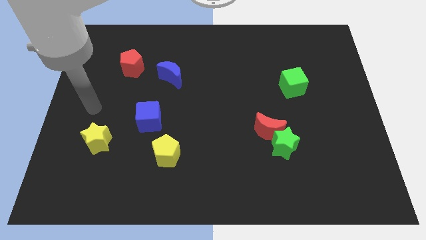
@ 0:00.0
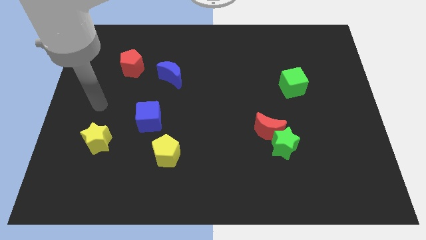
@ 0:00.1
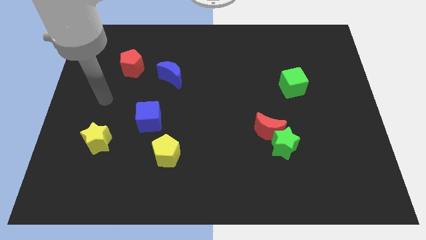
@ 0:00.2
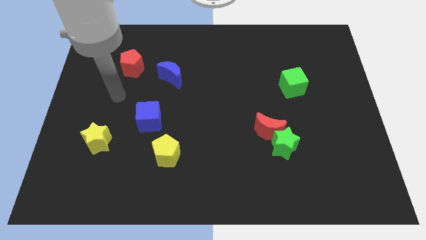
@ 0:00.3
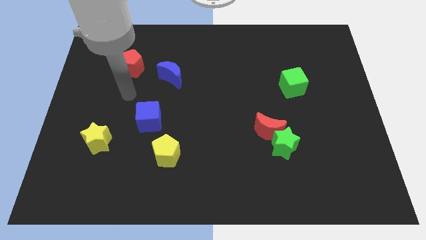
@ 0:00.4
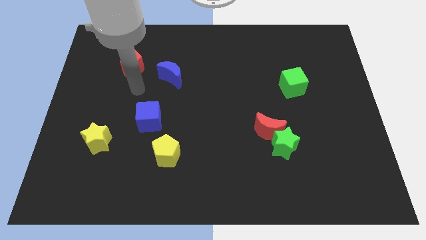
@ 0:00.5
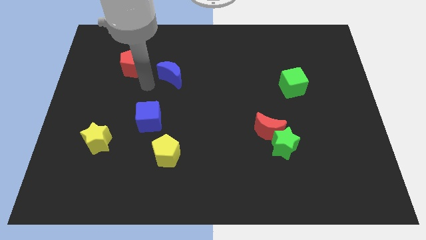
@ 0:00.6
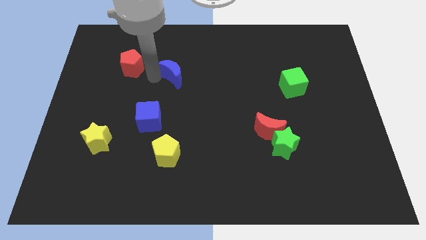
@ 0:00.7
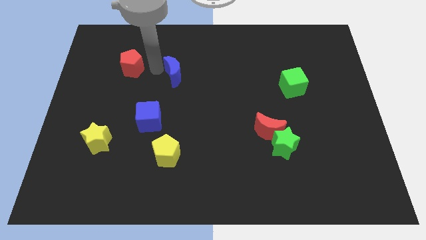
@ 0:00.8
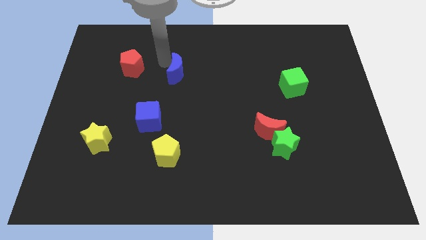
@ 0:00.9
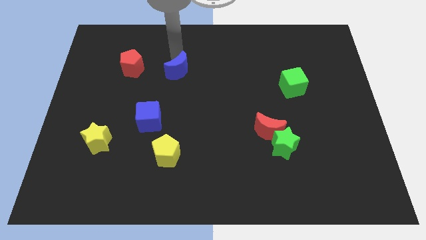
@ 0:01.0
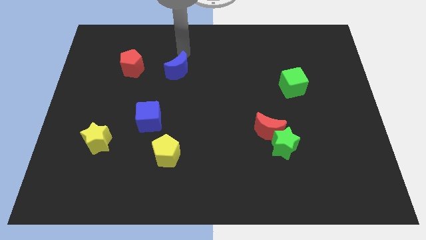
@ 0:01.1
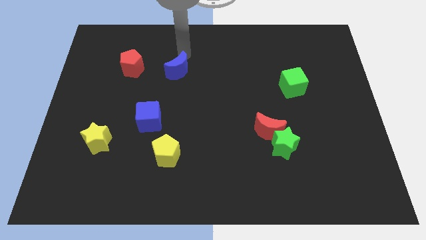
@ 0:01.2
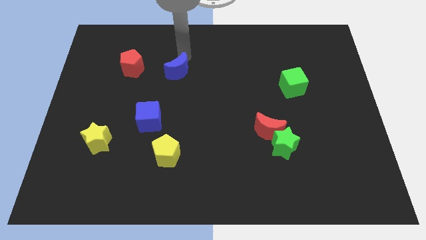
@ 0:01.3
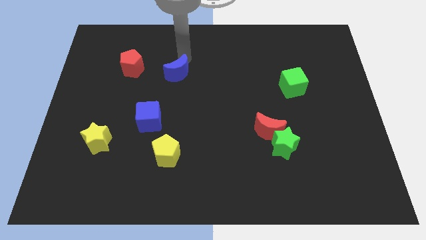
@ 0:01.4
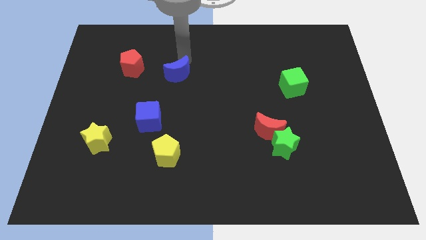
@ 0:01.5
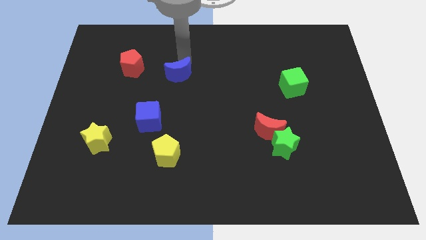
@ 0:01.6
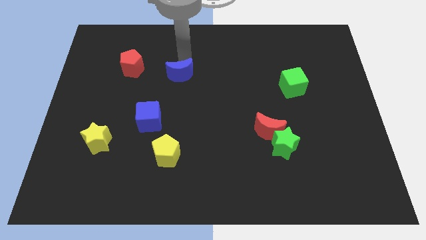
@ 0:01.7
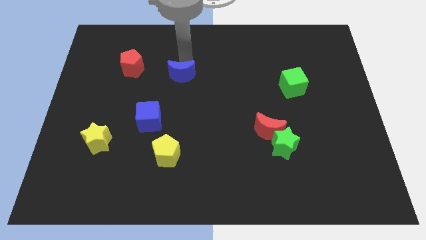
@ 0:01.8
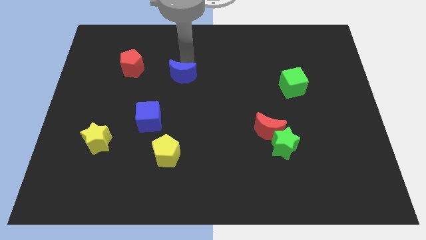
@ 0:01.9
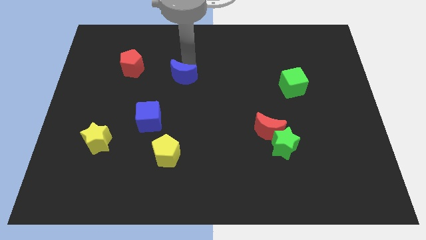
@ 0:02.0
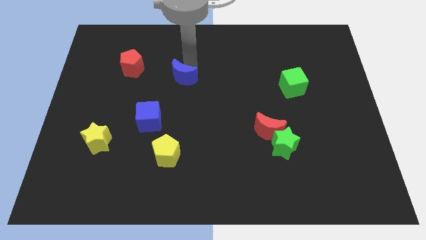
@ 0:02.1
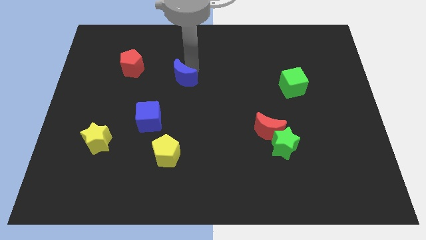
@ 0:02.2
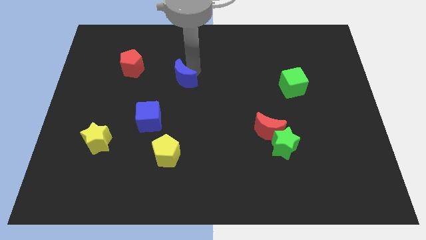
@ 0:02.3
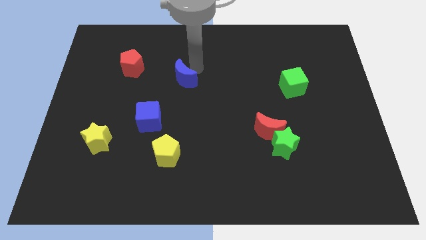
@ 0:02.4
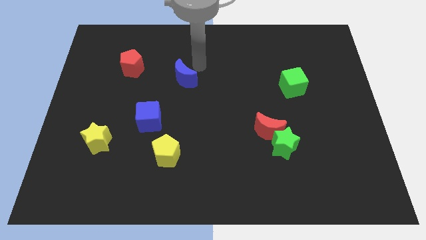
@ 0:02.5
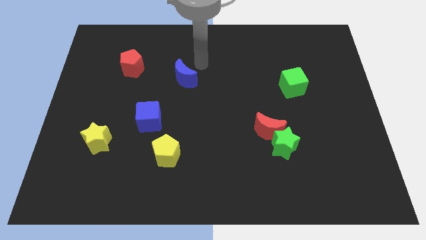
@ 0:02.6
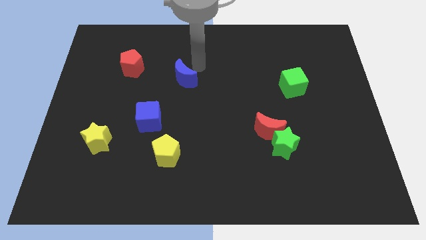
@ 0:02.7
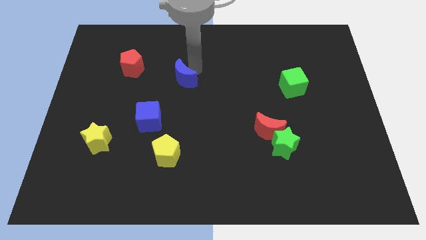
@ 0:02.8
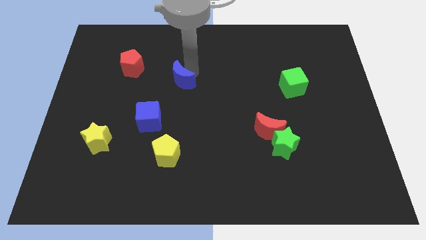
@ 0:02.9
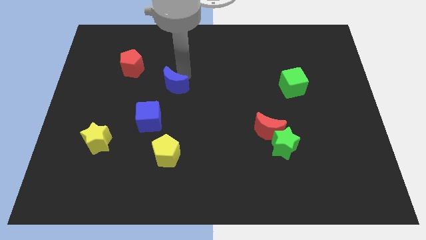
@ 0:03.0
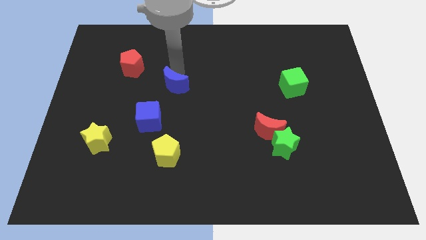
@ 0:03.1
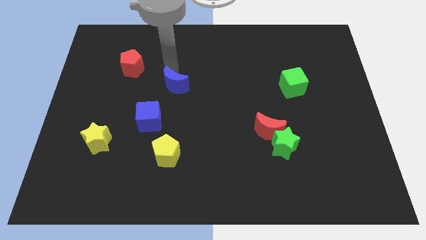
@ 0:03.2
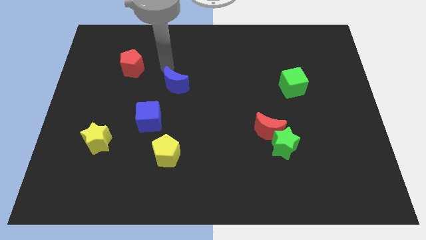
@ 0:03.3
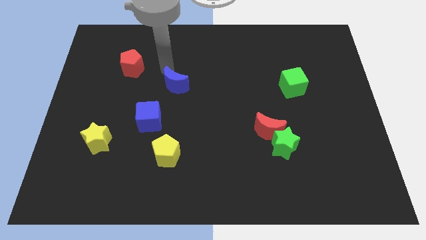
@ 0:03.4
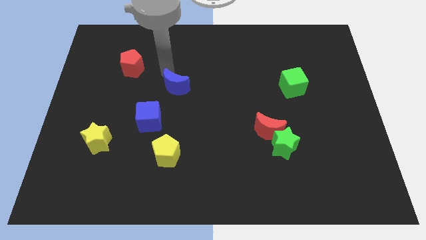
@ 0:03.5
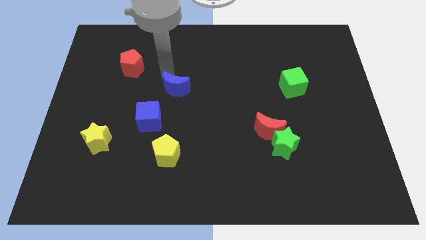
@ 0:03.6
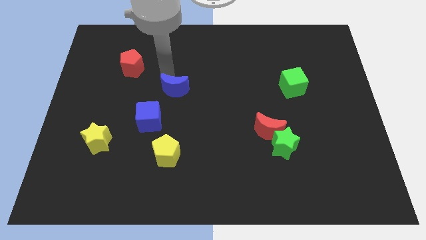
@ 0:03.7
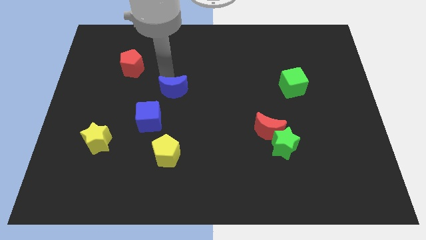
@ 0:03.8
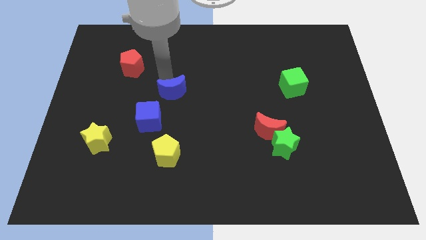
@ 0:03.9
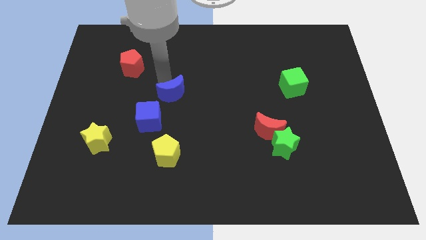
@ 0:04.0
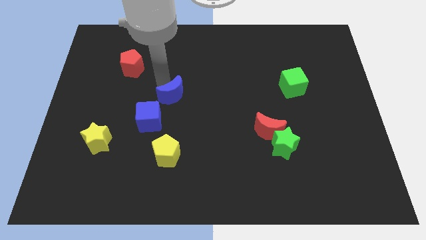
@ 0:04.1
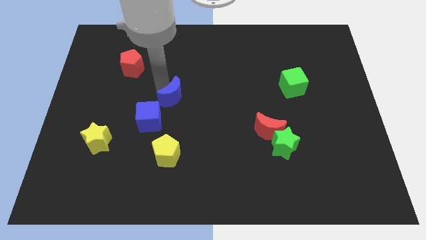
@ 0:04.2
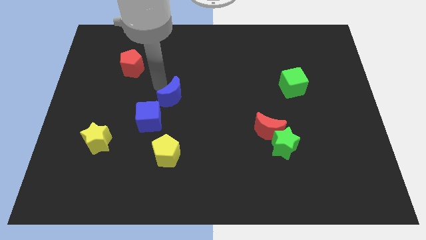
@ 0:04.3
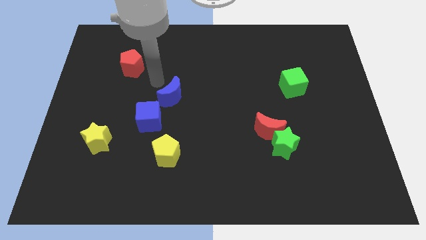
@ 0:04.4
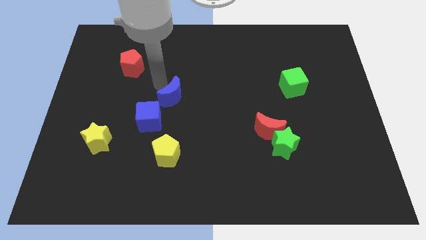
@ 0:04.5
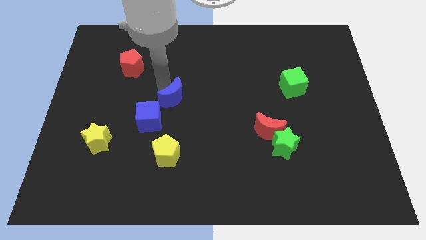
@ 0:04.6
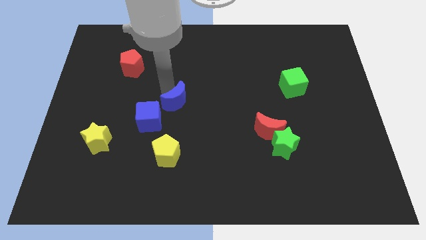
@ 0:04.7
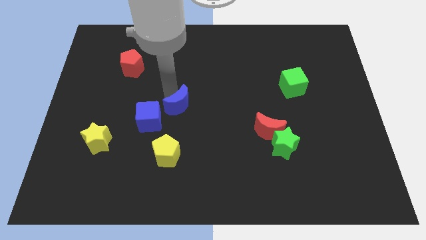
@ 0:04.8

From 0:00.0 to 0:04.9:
slide the blue moon right of the blue cube

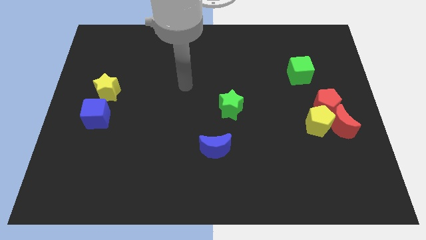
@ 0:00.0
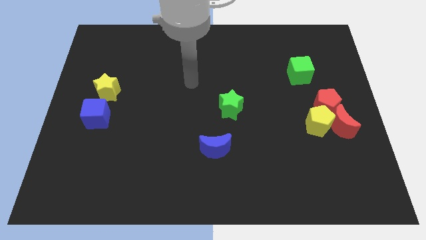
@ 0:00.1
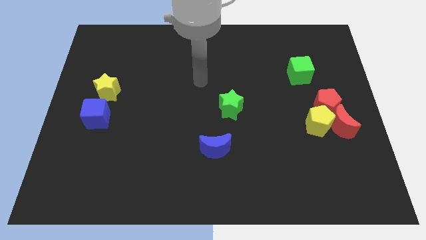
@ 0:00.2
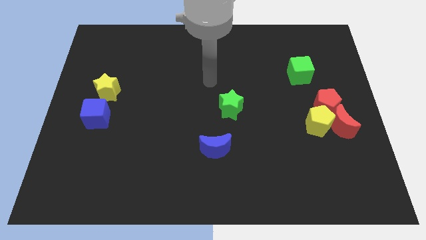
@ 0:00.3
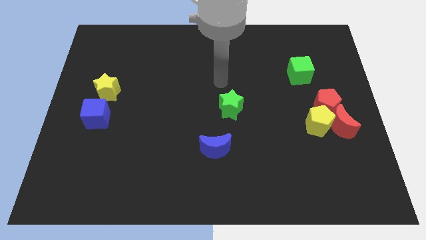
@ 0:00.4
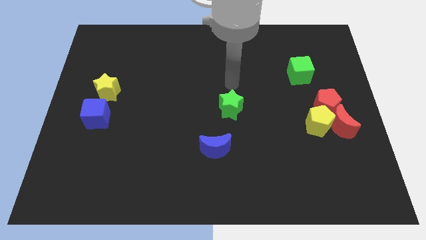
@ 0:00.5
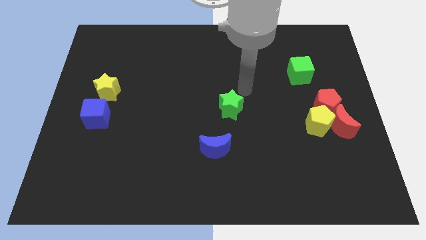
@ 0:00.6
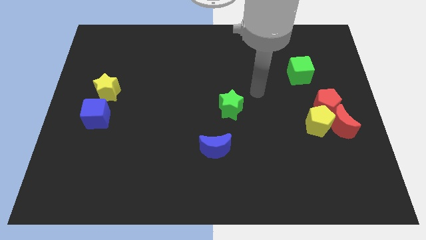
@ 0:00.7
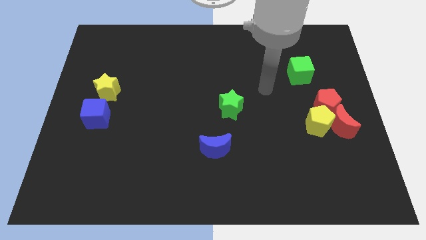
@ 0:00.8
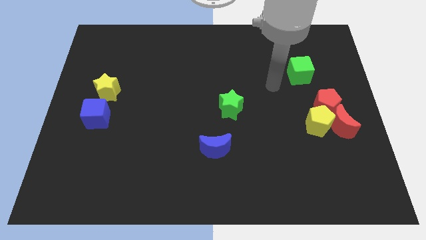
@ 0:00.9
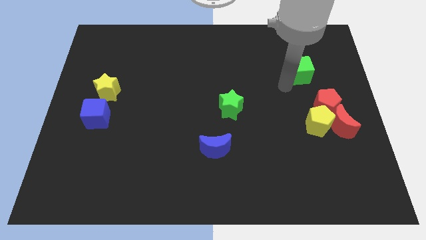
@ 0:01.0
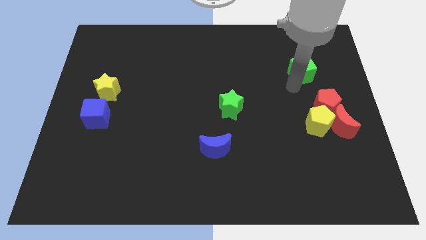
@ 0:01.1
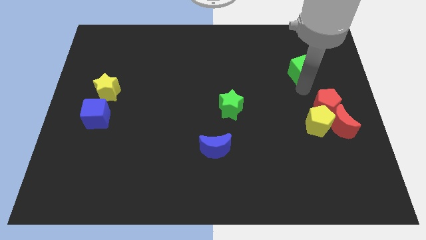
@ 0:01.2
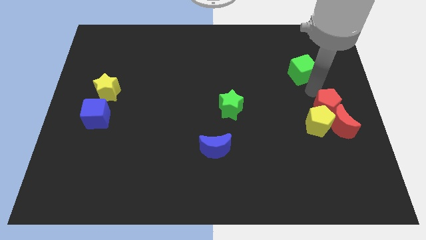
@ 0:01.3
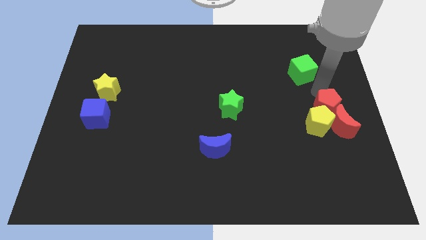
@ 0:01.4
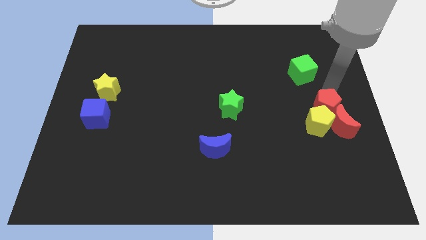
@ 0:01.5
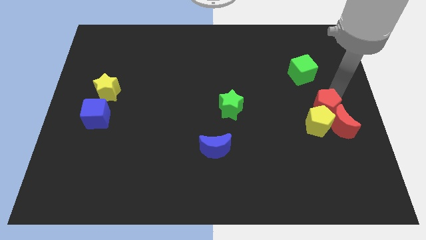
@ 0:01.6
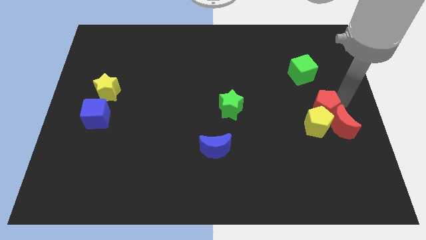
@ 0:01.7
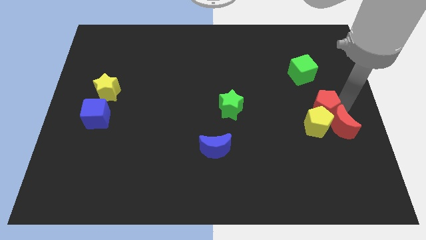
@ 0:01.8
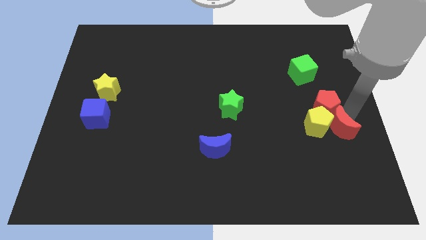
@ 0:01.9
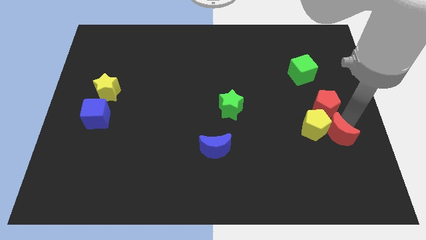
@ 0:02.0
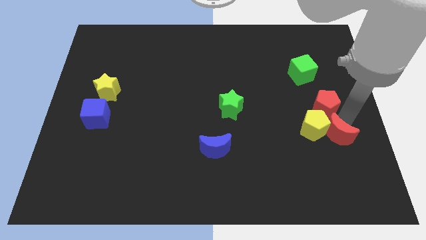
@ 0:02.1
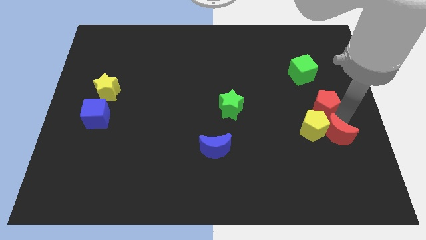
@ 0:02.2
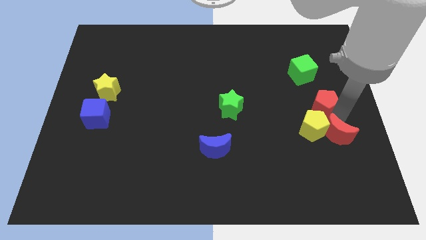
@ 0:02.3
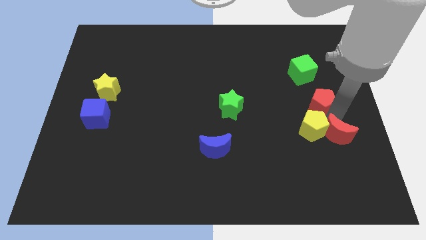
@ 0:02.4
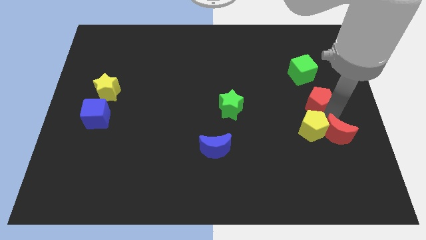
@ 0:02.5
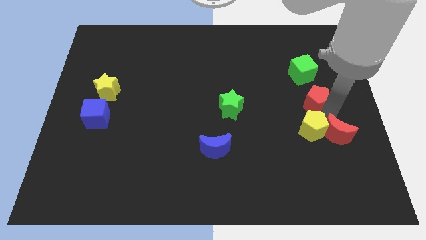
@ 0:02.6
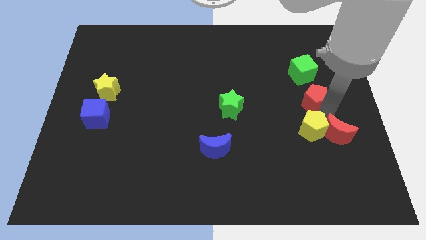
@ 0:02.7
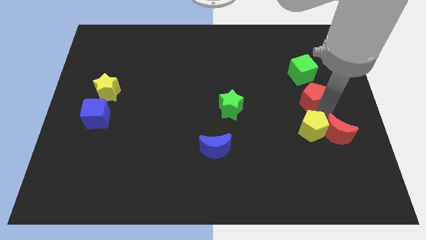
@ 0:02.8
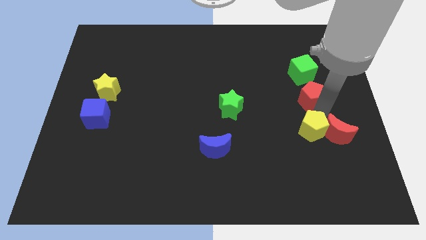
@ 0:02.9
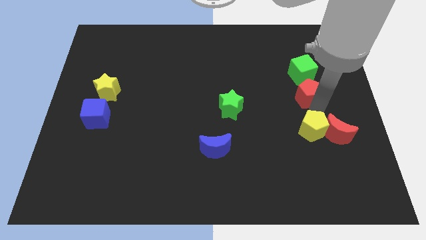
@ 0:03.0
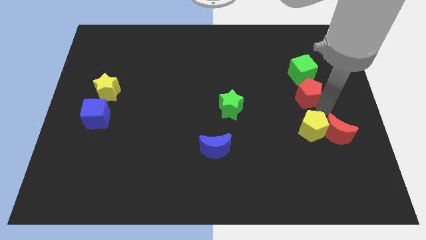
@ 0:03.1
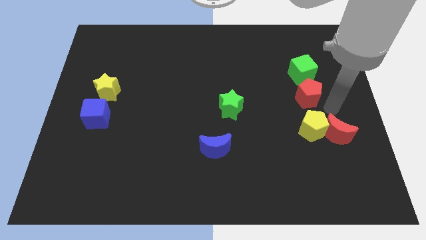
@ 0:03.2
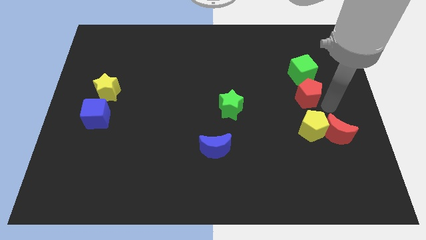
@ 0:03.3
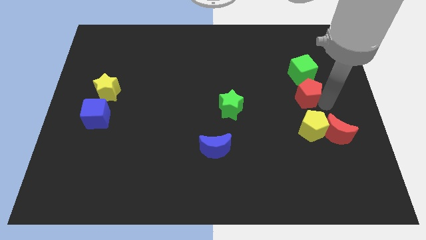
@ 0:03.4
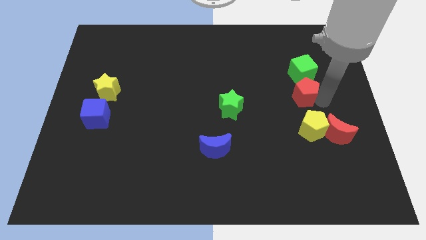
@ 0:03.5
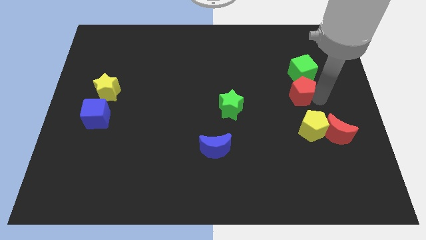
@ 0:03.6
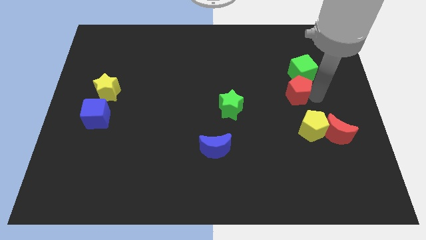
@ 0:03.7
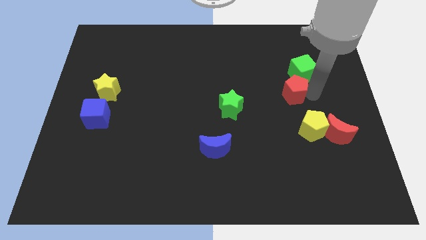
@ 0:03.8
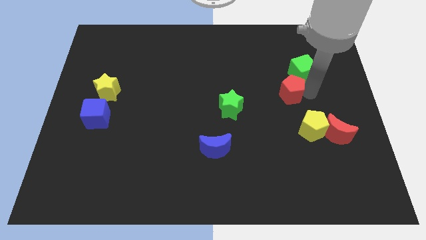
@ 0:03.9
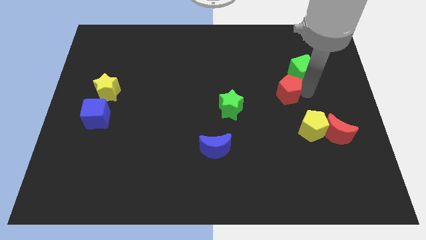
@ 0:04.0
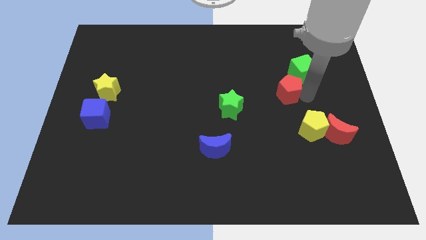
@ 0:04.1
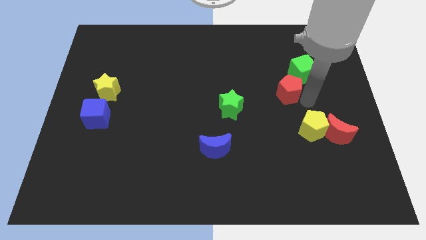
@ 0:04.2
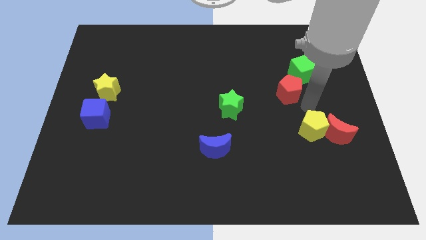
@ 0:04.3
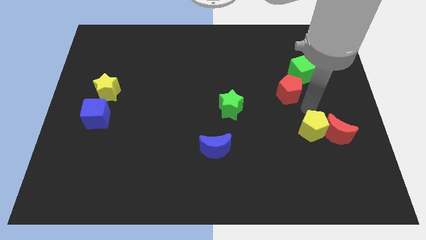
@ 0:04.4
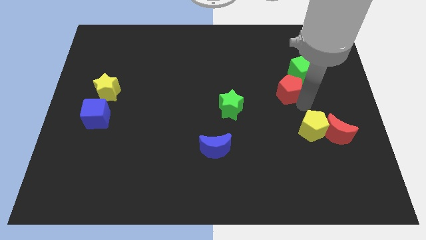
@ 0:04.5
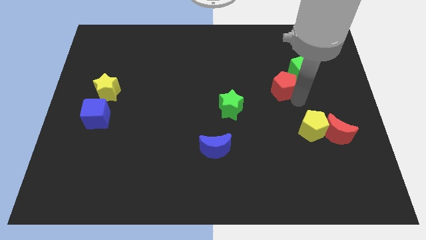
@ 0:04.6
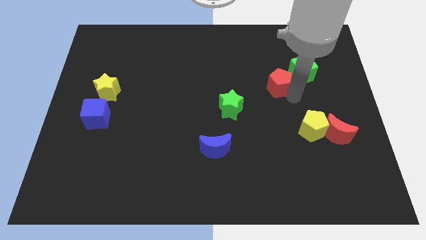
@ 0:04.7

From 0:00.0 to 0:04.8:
put the red pentagon to the left of the green cube
